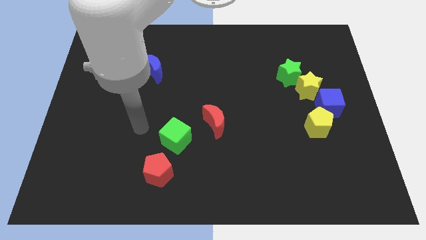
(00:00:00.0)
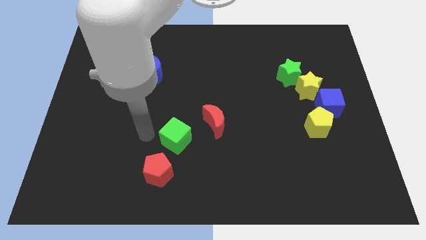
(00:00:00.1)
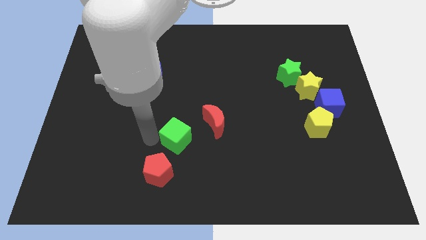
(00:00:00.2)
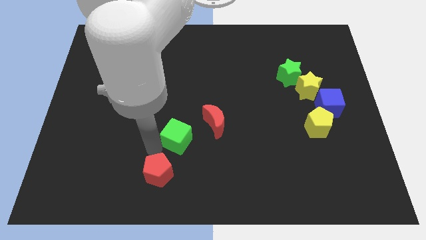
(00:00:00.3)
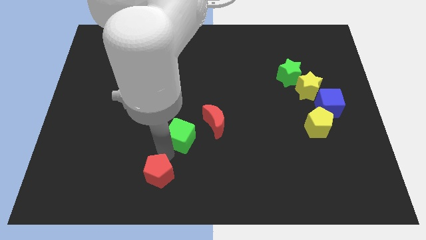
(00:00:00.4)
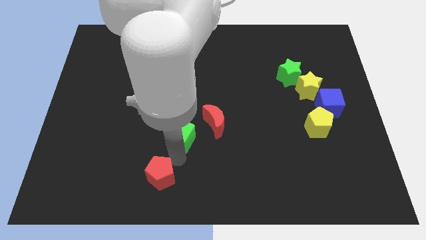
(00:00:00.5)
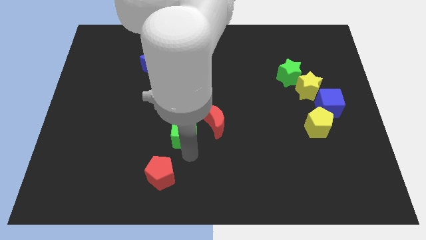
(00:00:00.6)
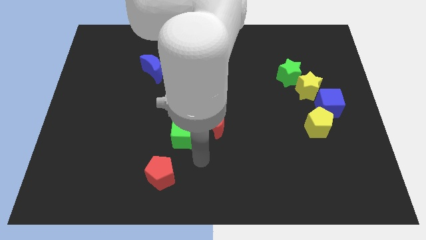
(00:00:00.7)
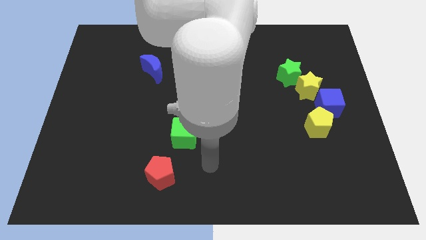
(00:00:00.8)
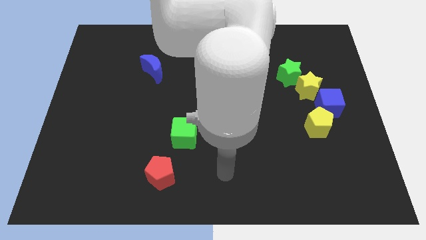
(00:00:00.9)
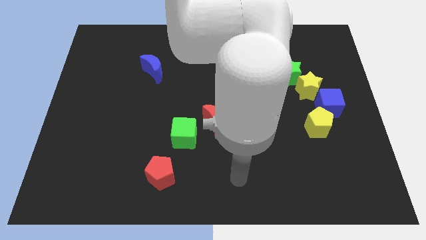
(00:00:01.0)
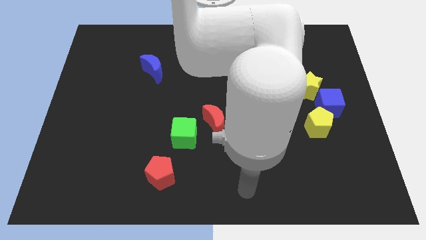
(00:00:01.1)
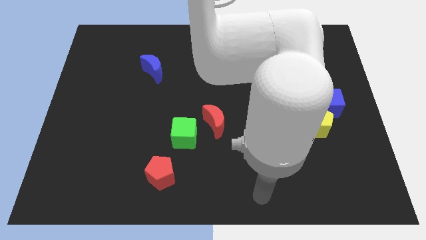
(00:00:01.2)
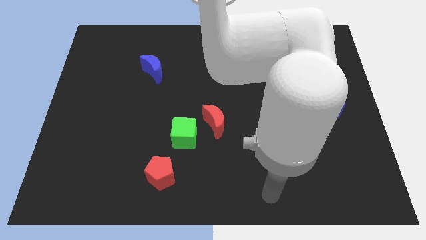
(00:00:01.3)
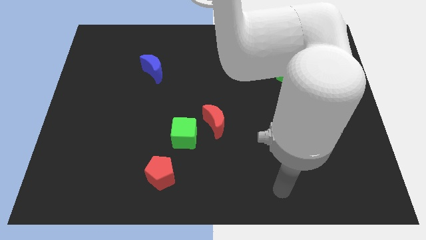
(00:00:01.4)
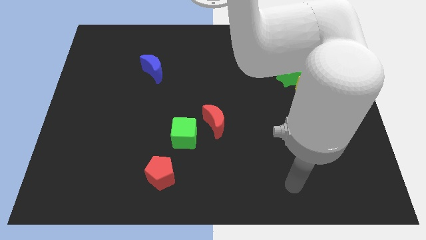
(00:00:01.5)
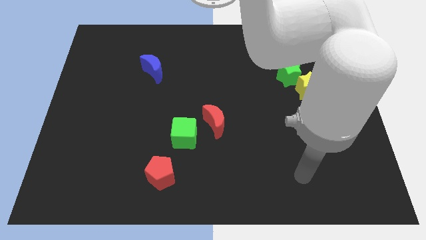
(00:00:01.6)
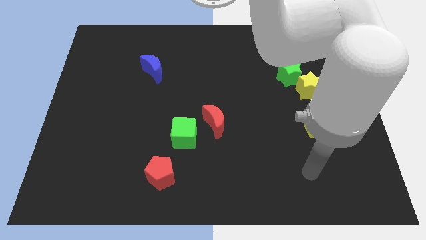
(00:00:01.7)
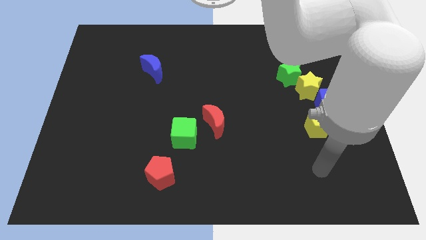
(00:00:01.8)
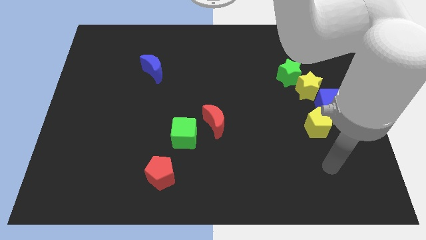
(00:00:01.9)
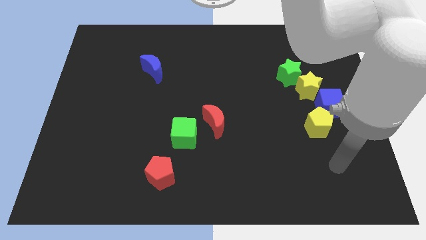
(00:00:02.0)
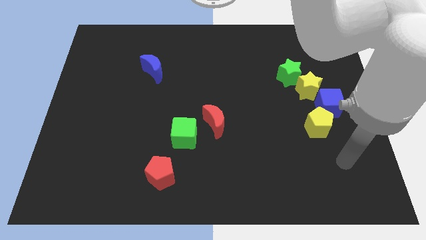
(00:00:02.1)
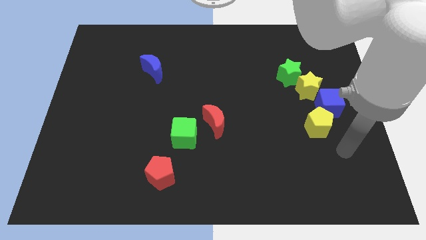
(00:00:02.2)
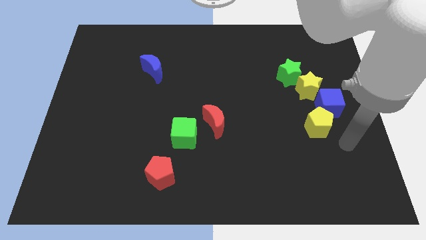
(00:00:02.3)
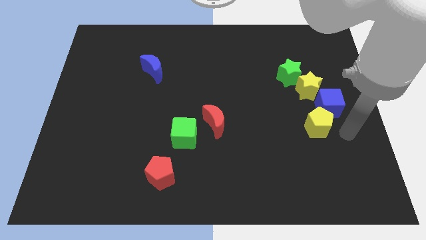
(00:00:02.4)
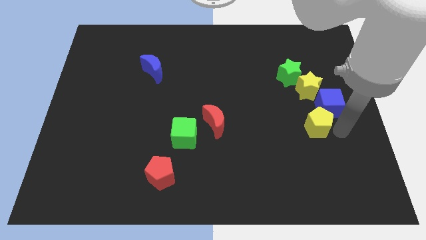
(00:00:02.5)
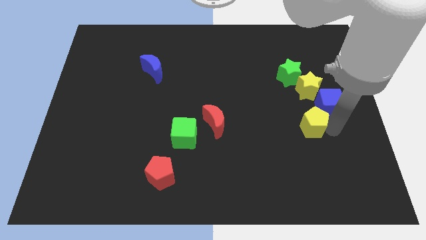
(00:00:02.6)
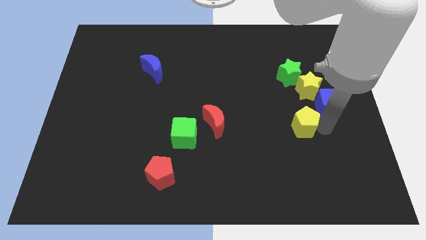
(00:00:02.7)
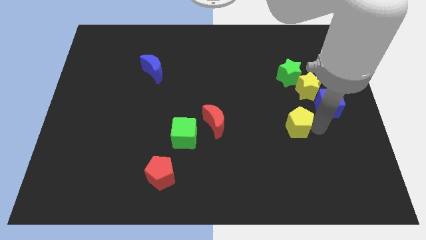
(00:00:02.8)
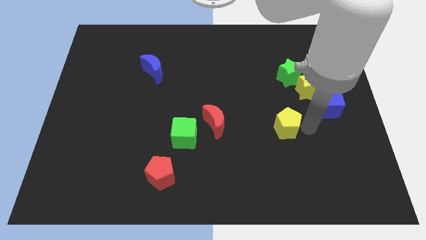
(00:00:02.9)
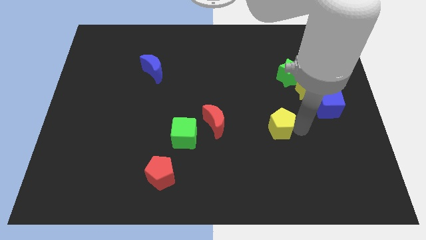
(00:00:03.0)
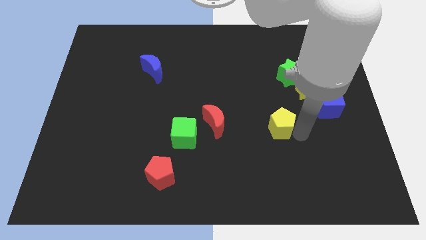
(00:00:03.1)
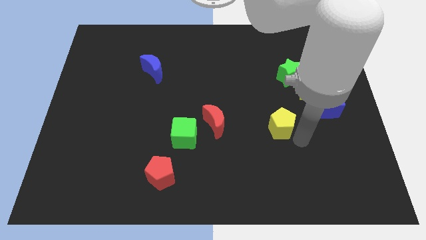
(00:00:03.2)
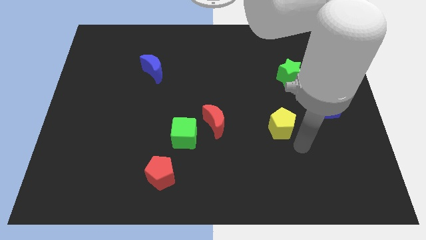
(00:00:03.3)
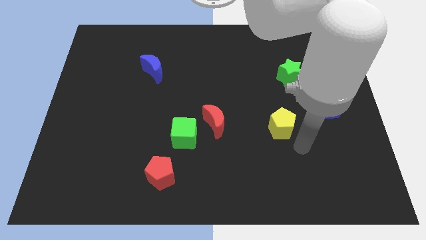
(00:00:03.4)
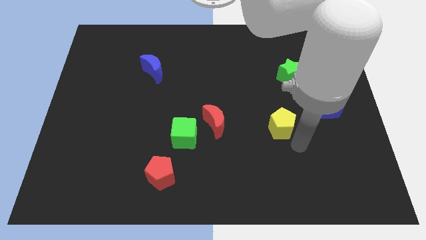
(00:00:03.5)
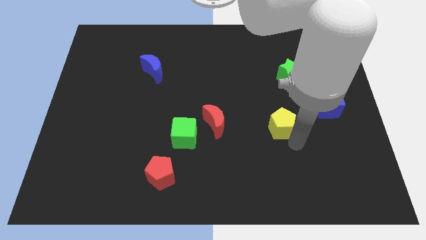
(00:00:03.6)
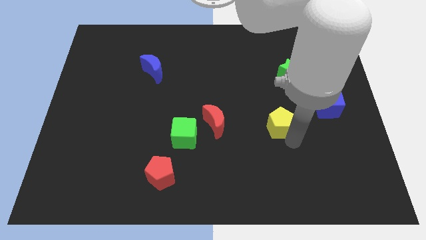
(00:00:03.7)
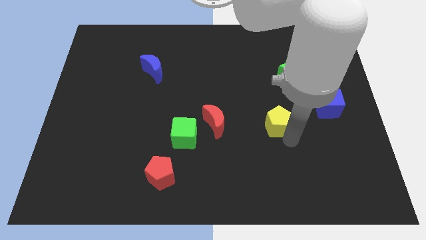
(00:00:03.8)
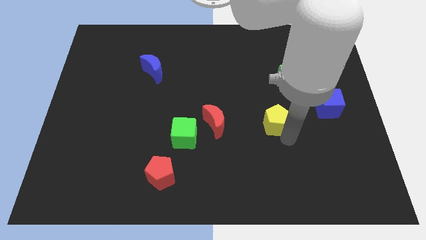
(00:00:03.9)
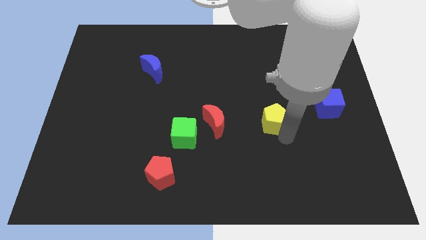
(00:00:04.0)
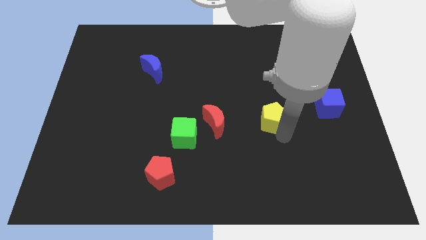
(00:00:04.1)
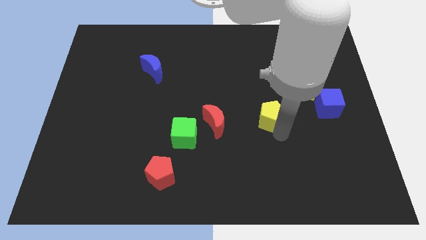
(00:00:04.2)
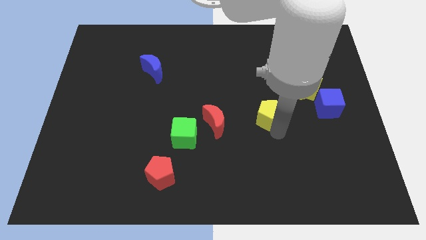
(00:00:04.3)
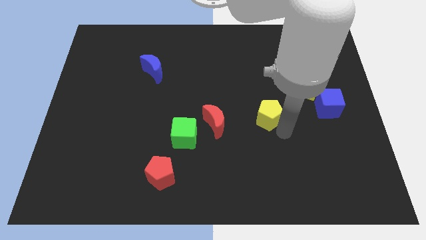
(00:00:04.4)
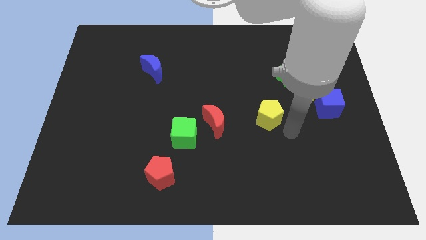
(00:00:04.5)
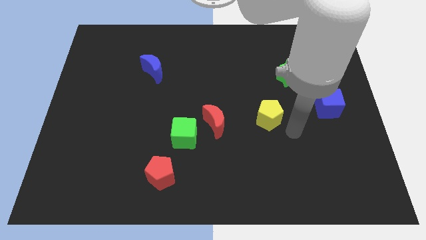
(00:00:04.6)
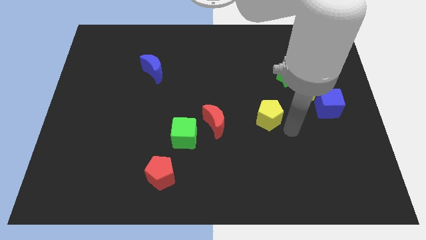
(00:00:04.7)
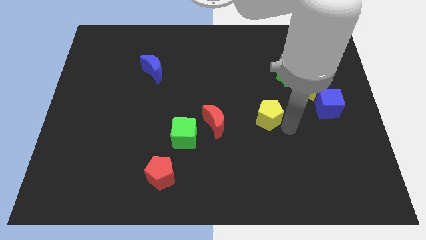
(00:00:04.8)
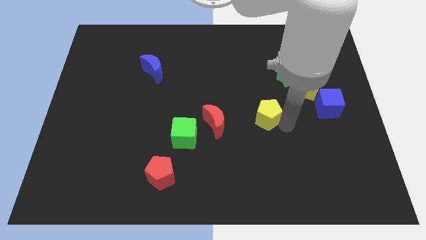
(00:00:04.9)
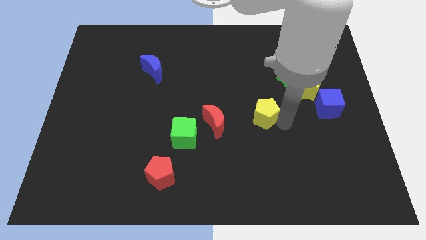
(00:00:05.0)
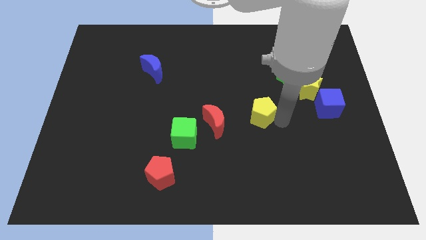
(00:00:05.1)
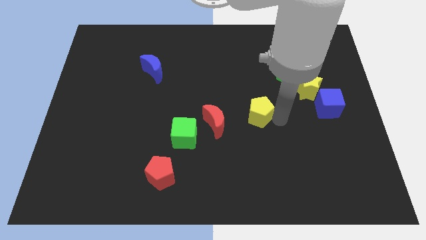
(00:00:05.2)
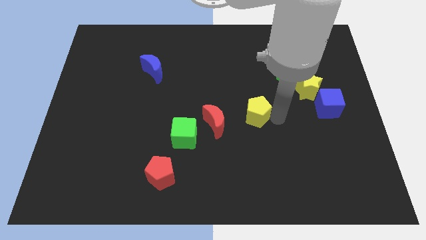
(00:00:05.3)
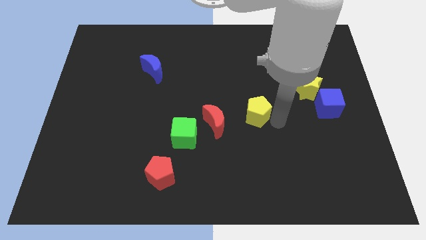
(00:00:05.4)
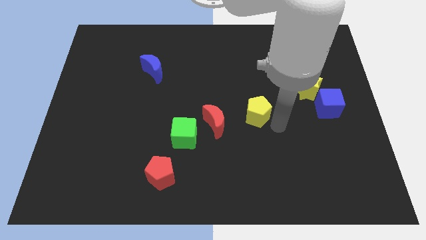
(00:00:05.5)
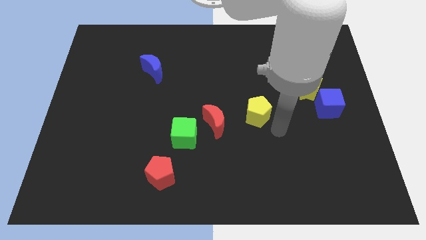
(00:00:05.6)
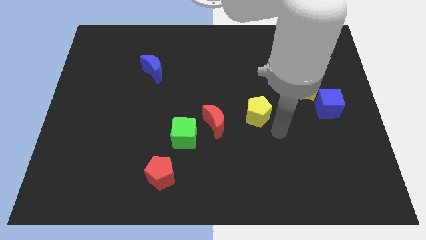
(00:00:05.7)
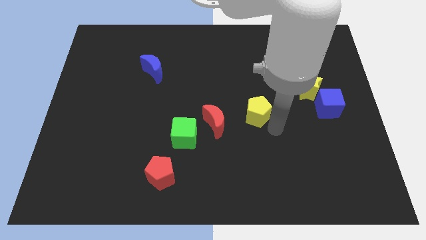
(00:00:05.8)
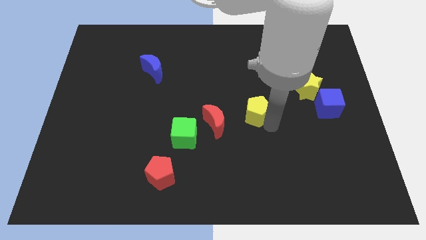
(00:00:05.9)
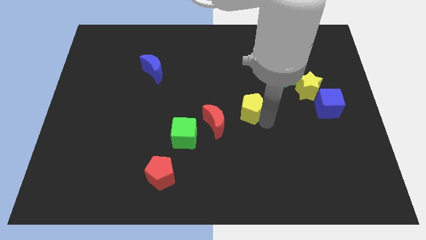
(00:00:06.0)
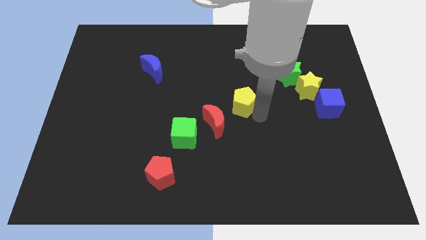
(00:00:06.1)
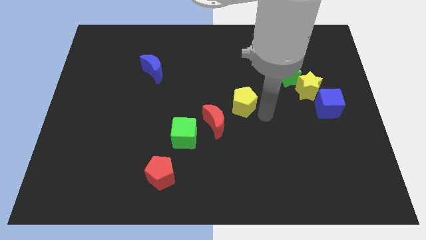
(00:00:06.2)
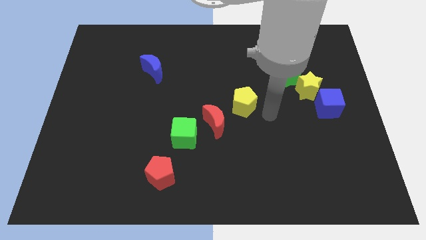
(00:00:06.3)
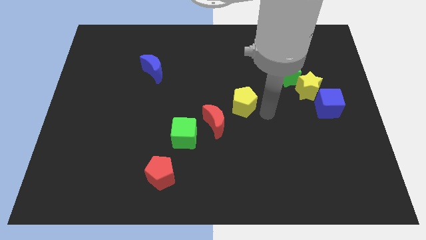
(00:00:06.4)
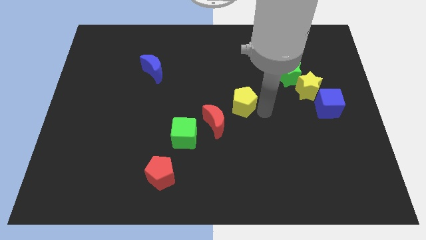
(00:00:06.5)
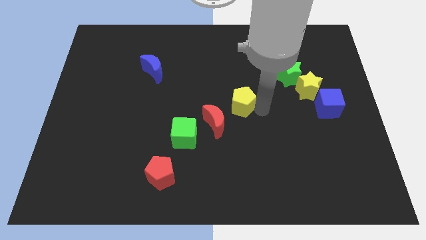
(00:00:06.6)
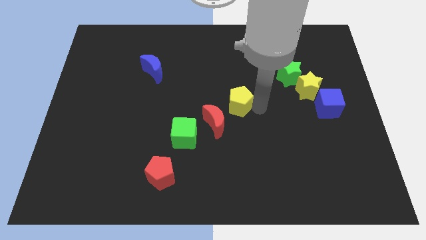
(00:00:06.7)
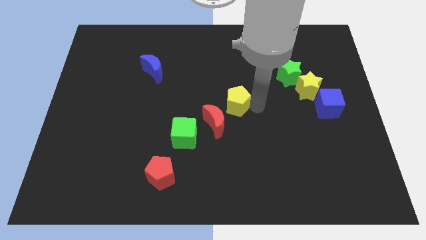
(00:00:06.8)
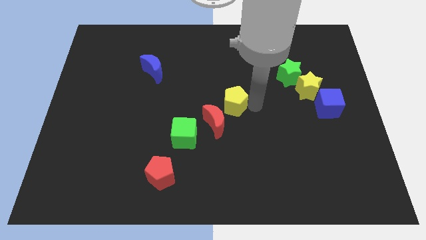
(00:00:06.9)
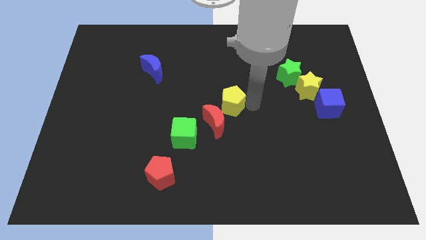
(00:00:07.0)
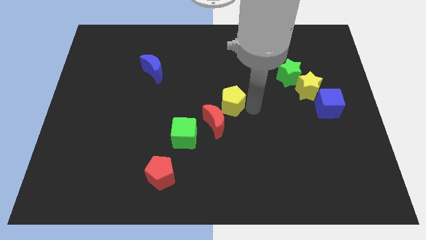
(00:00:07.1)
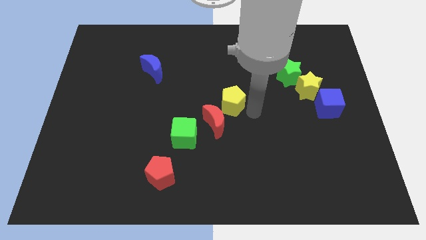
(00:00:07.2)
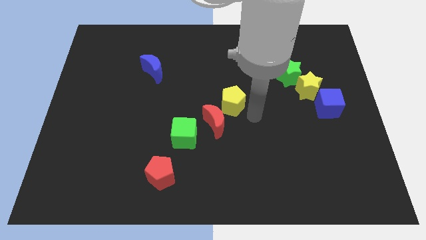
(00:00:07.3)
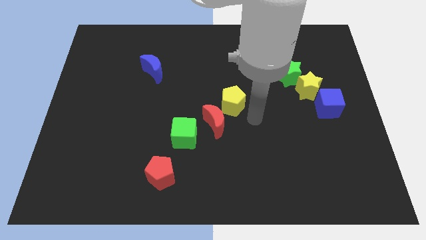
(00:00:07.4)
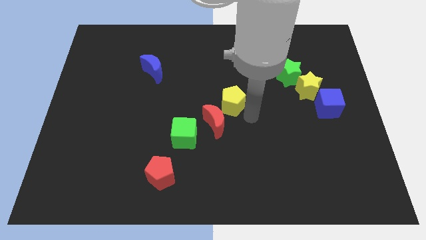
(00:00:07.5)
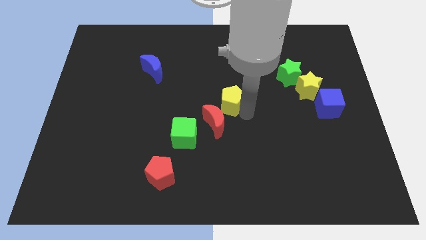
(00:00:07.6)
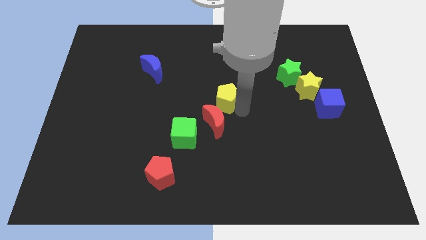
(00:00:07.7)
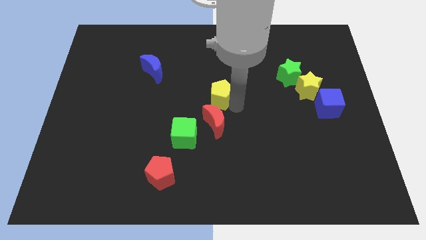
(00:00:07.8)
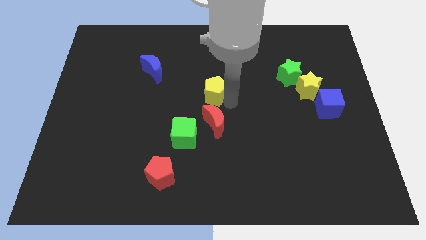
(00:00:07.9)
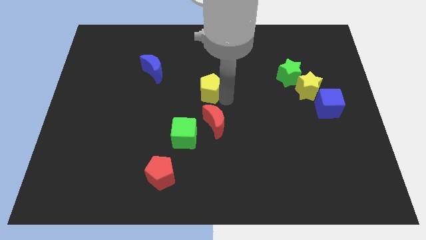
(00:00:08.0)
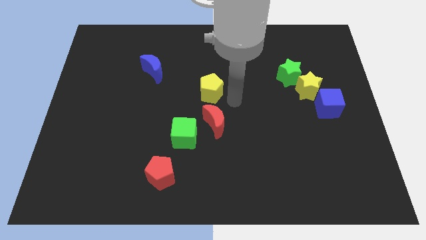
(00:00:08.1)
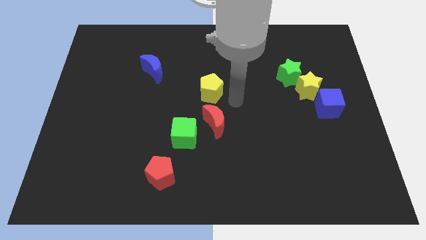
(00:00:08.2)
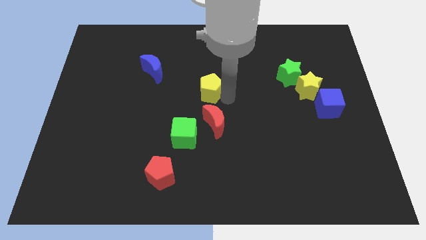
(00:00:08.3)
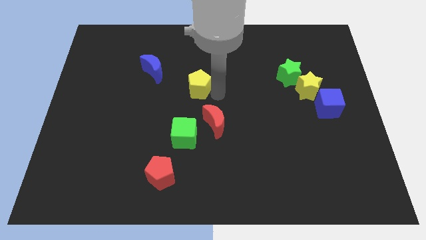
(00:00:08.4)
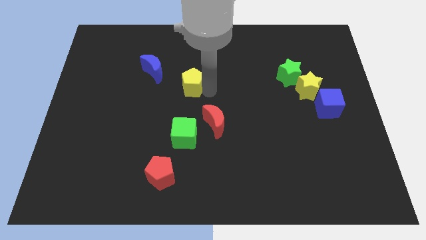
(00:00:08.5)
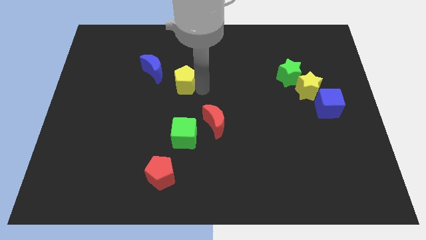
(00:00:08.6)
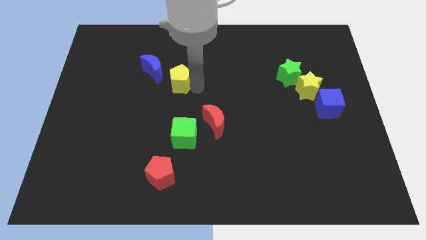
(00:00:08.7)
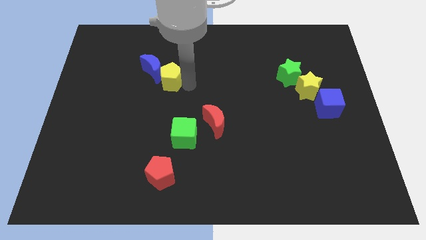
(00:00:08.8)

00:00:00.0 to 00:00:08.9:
put the yellow pentagon towards the blue moon
